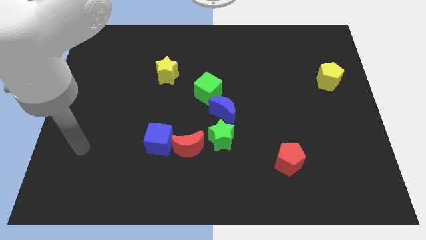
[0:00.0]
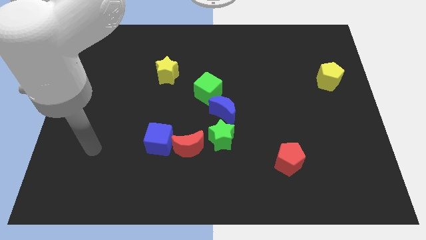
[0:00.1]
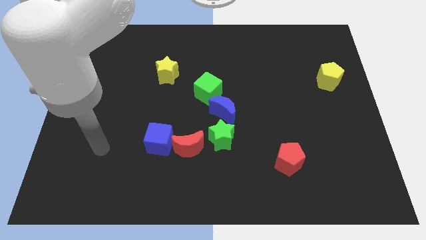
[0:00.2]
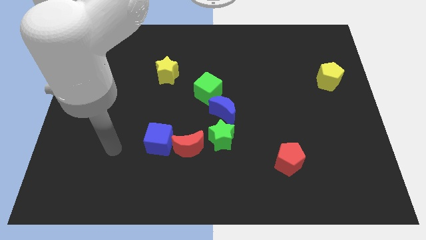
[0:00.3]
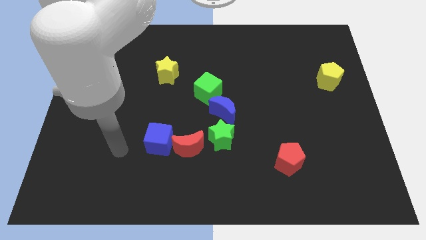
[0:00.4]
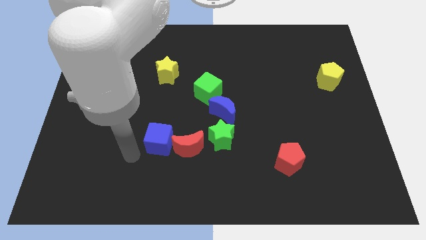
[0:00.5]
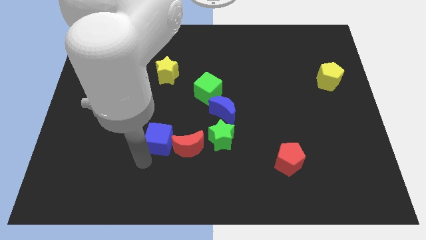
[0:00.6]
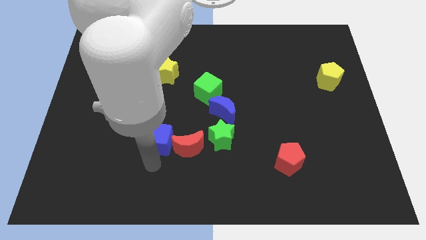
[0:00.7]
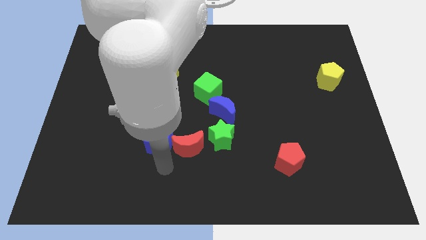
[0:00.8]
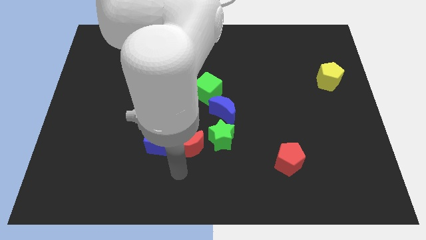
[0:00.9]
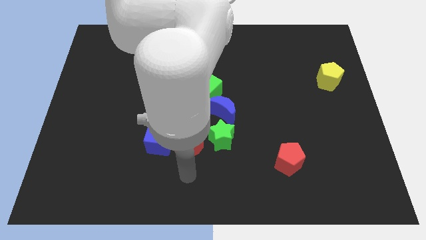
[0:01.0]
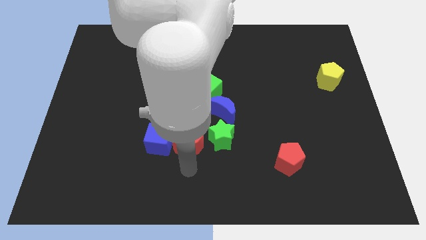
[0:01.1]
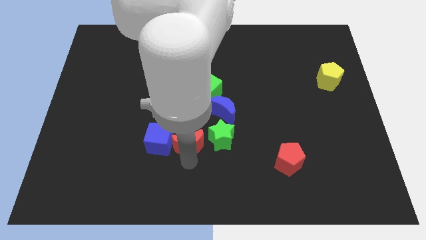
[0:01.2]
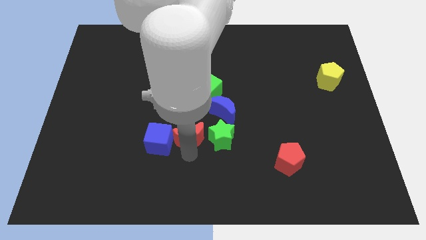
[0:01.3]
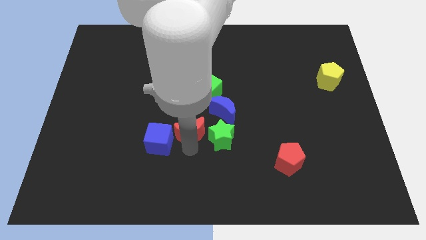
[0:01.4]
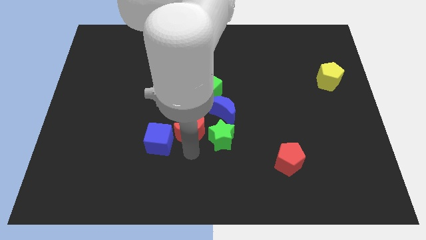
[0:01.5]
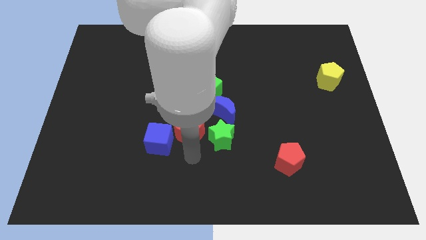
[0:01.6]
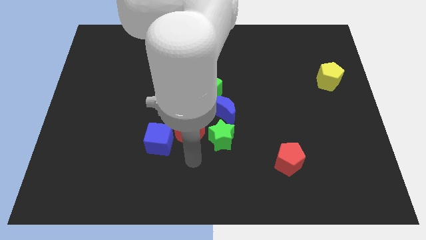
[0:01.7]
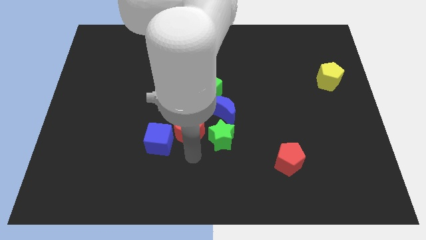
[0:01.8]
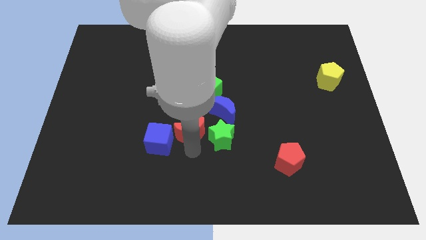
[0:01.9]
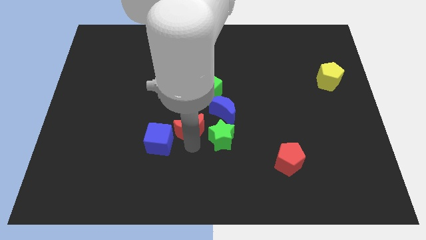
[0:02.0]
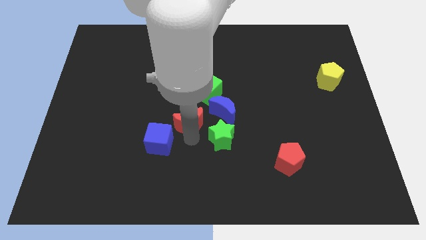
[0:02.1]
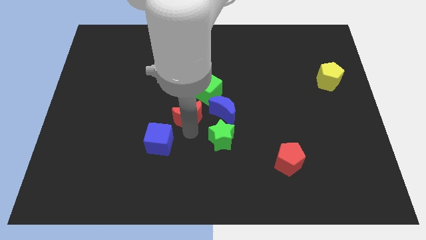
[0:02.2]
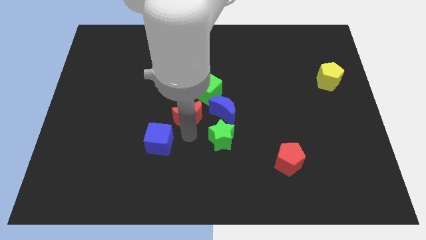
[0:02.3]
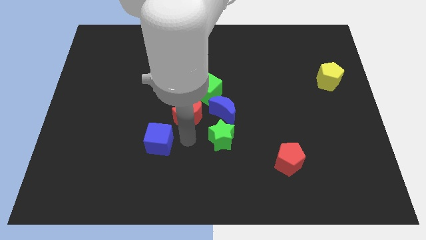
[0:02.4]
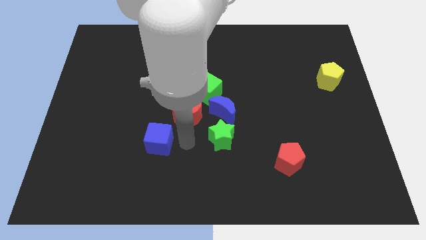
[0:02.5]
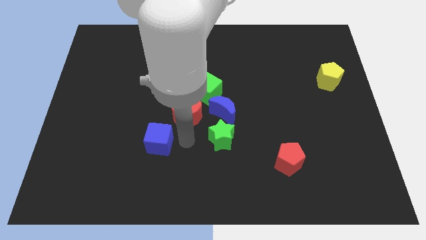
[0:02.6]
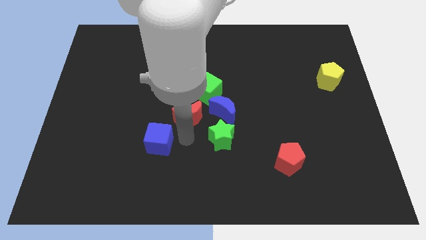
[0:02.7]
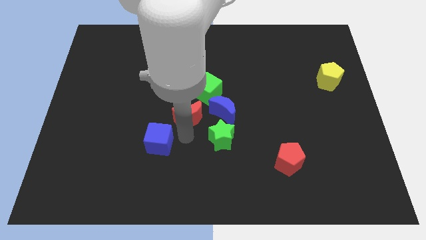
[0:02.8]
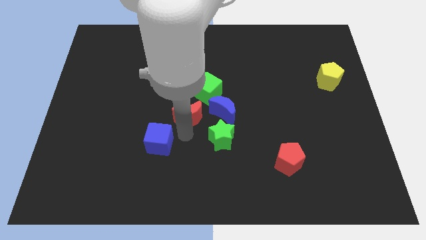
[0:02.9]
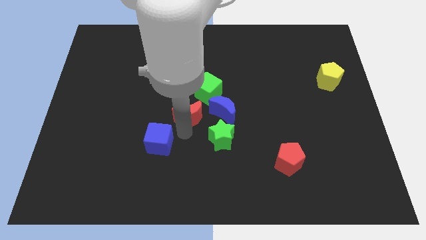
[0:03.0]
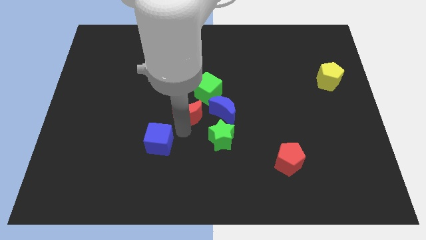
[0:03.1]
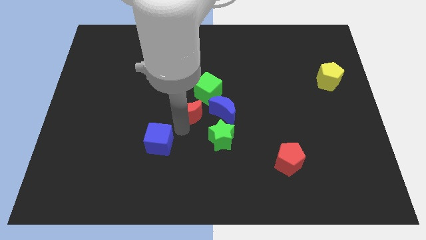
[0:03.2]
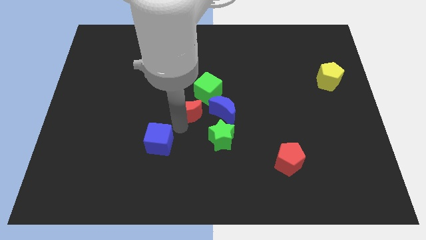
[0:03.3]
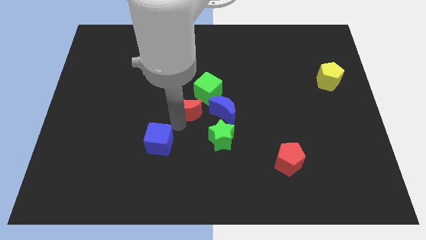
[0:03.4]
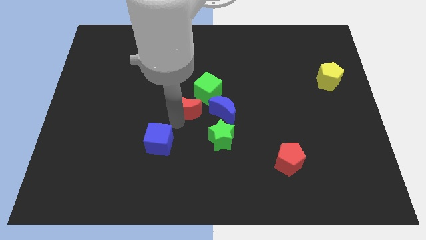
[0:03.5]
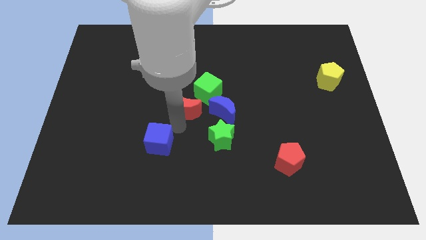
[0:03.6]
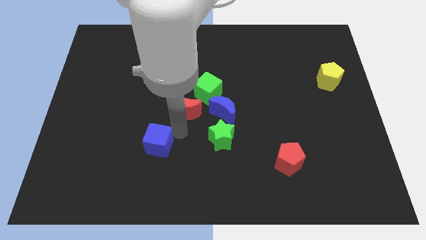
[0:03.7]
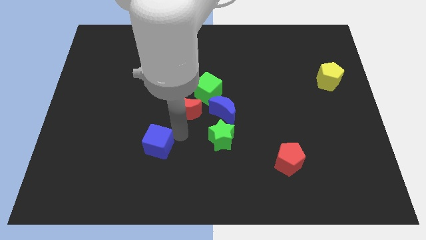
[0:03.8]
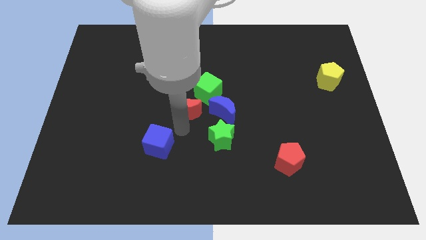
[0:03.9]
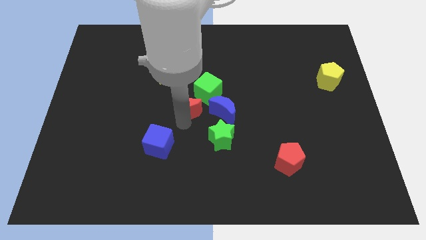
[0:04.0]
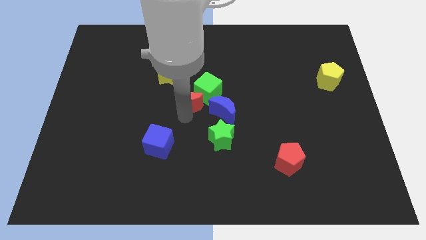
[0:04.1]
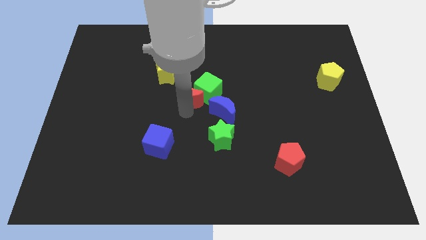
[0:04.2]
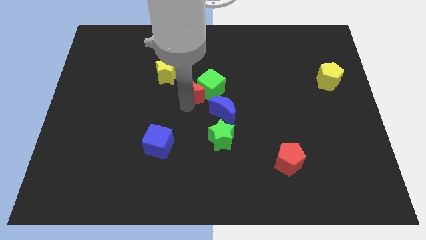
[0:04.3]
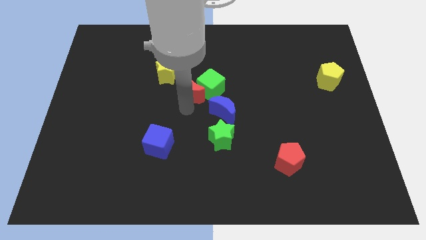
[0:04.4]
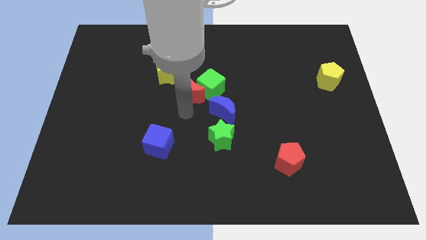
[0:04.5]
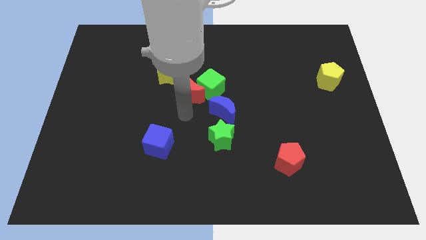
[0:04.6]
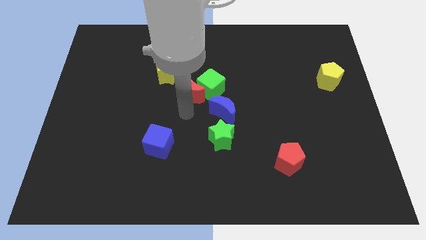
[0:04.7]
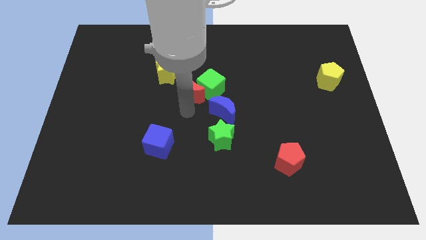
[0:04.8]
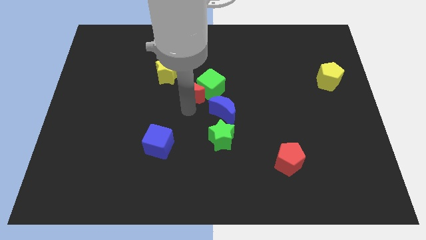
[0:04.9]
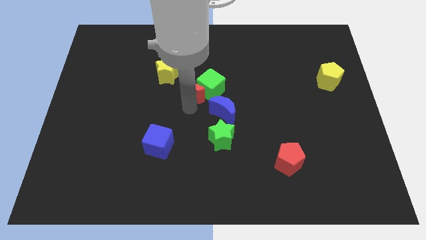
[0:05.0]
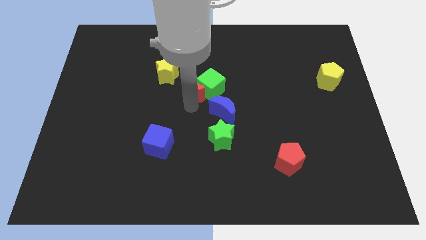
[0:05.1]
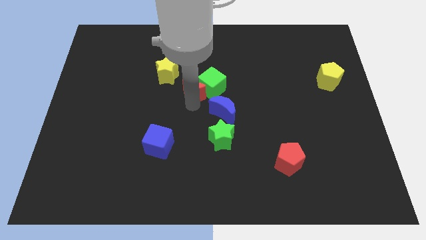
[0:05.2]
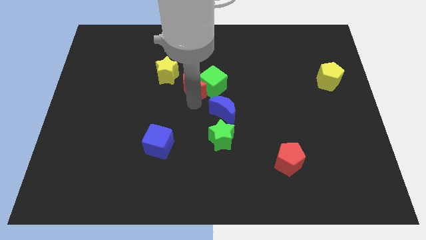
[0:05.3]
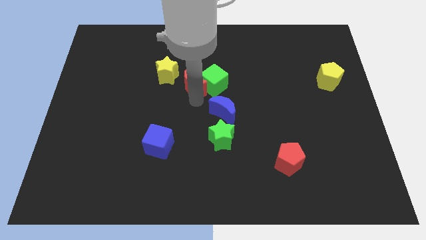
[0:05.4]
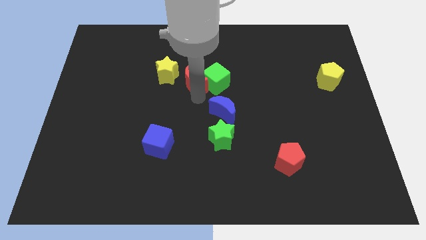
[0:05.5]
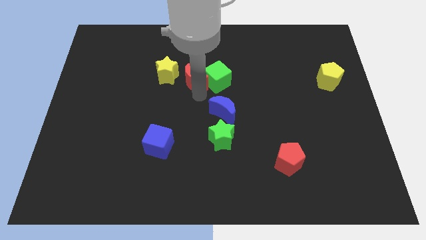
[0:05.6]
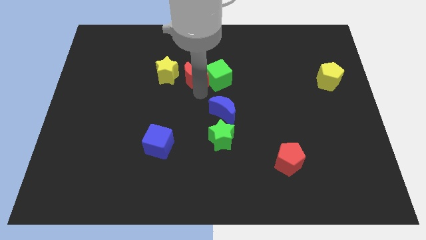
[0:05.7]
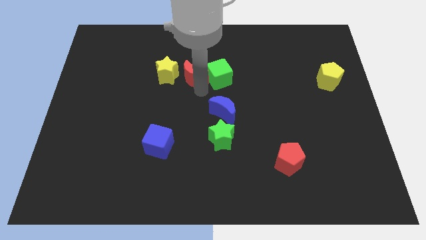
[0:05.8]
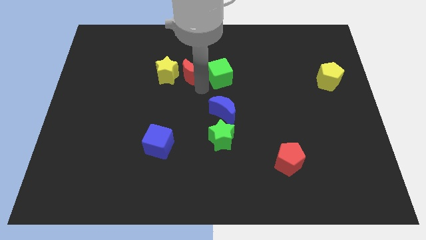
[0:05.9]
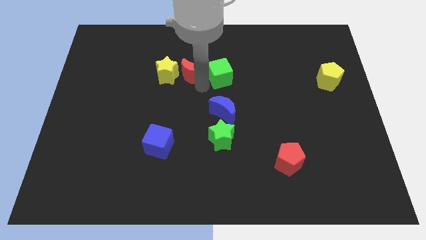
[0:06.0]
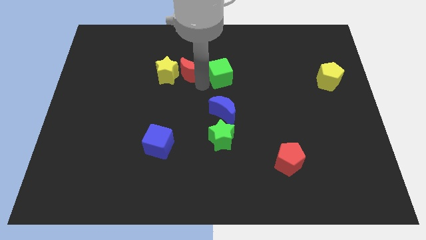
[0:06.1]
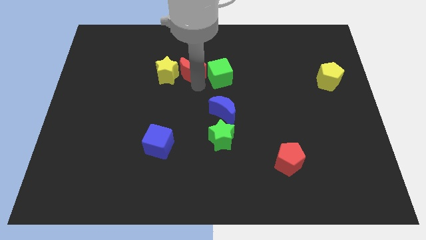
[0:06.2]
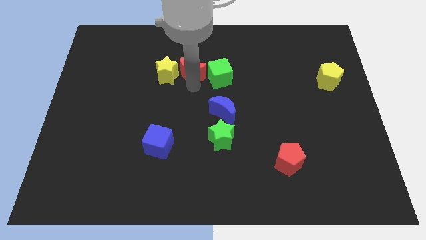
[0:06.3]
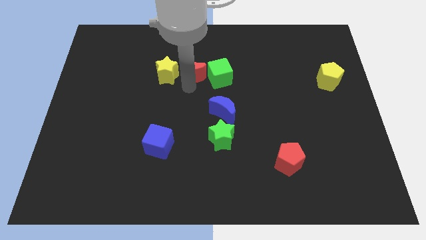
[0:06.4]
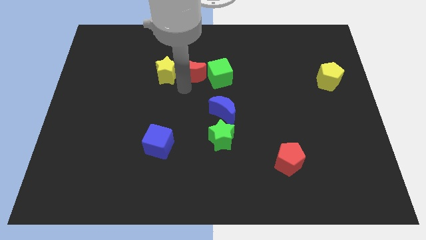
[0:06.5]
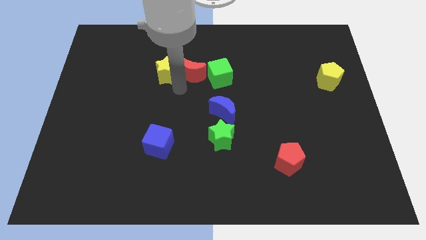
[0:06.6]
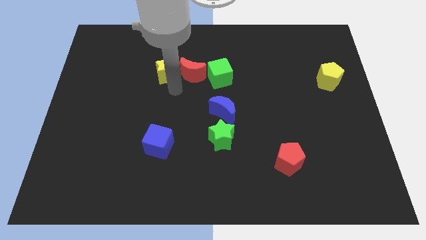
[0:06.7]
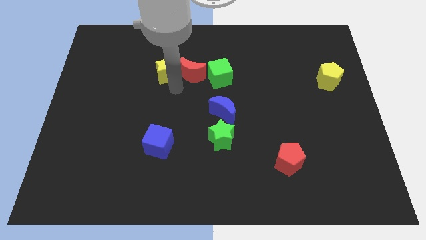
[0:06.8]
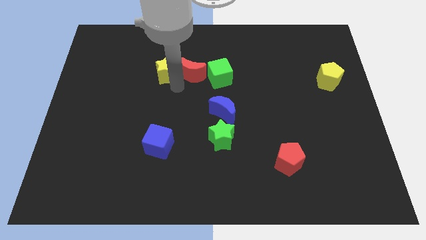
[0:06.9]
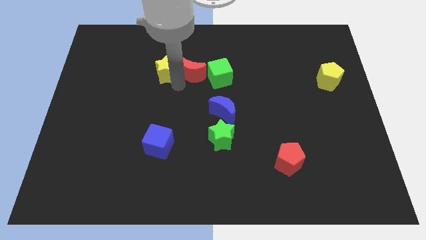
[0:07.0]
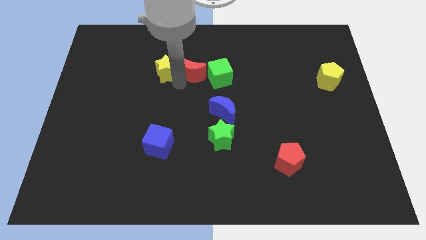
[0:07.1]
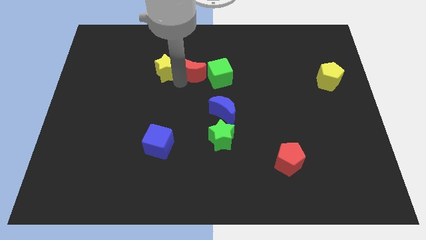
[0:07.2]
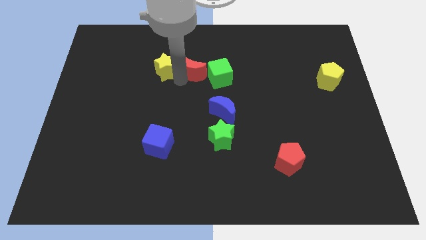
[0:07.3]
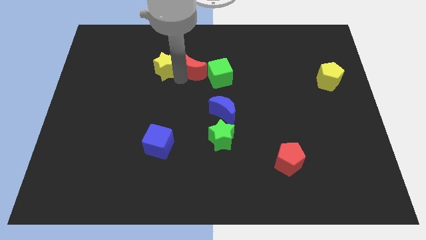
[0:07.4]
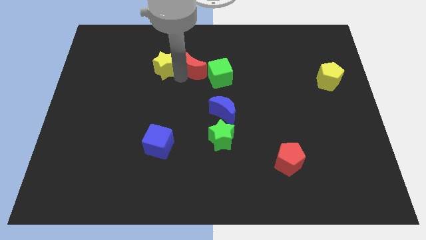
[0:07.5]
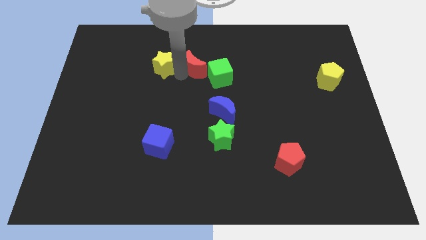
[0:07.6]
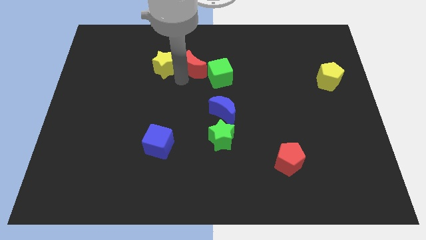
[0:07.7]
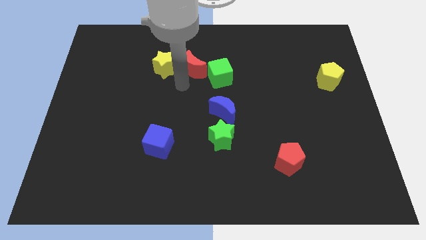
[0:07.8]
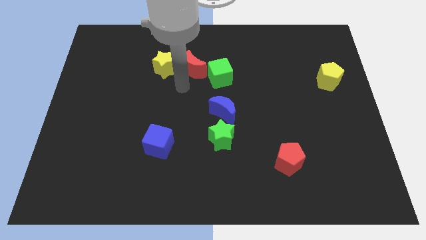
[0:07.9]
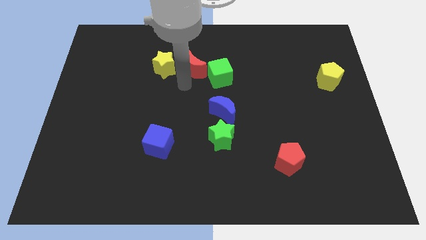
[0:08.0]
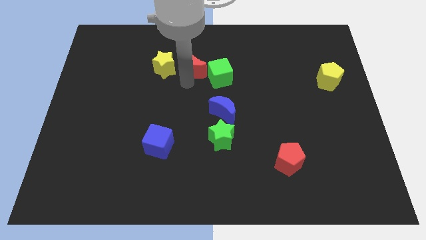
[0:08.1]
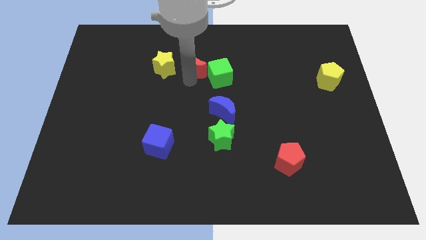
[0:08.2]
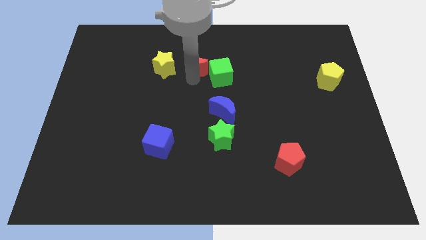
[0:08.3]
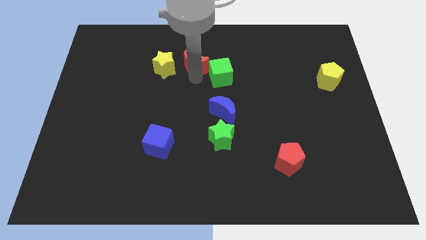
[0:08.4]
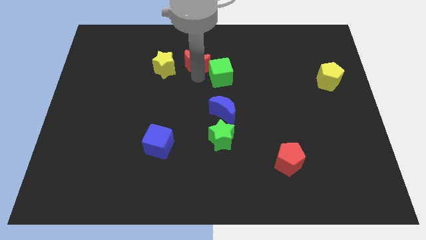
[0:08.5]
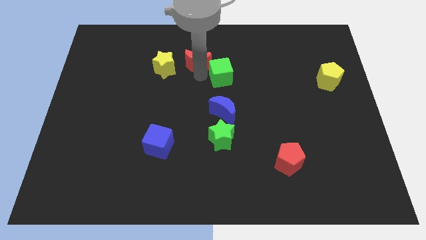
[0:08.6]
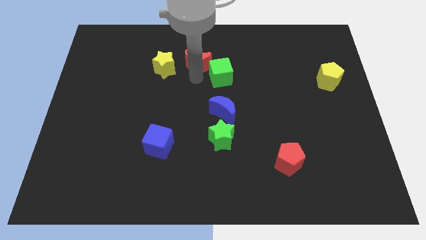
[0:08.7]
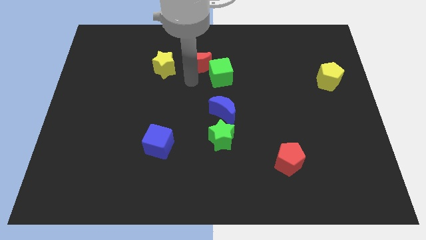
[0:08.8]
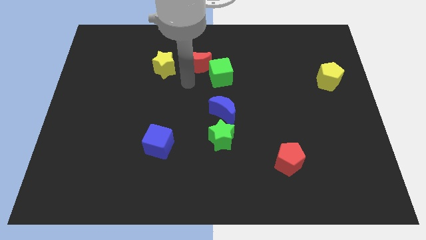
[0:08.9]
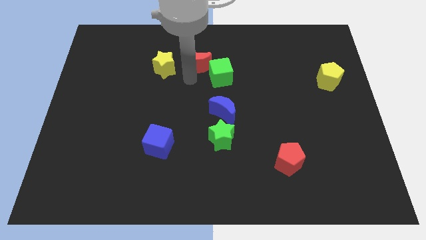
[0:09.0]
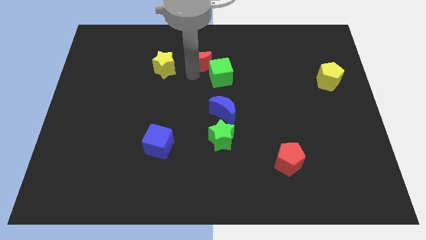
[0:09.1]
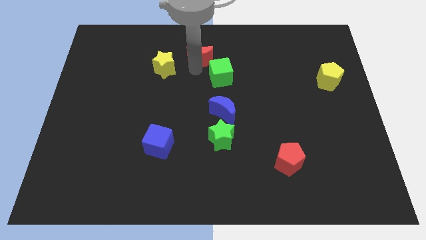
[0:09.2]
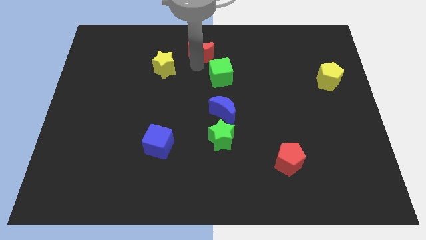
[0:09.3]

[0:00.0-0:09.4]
push the red moon to the top
